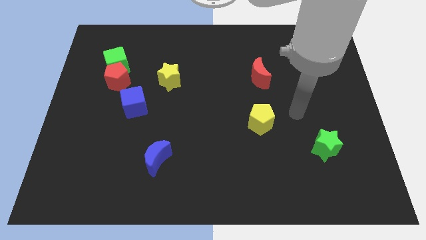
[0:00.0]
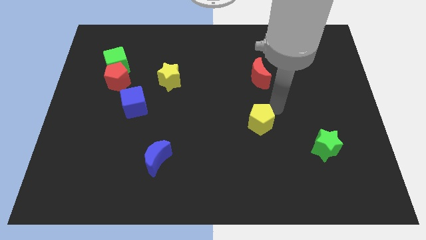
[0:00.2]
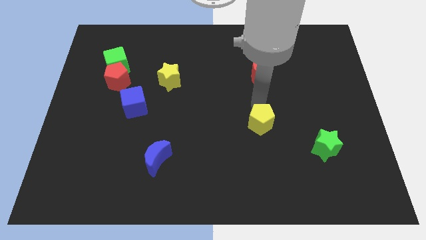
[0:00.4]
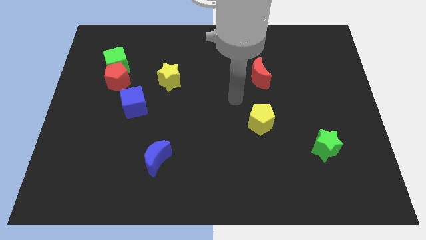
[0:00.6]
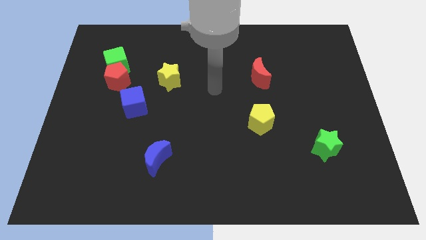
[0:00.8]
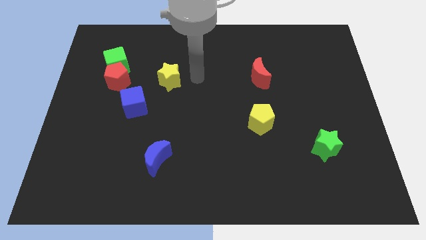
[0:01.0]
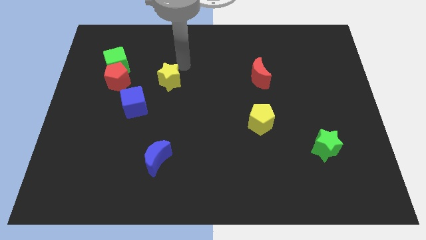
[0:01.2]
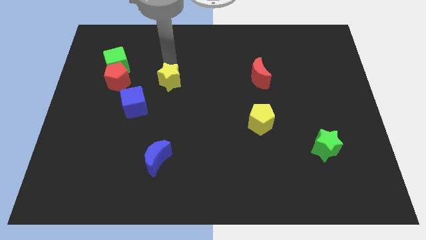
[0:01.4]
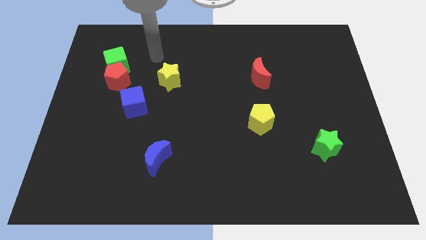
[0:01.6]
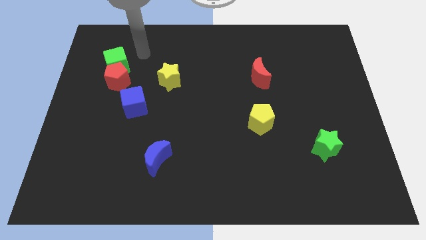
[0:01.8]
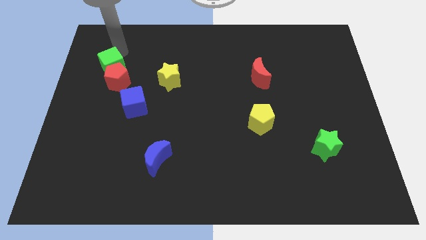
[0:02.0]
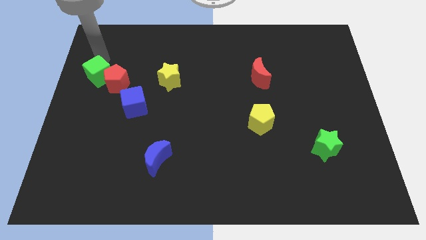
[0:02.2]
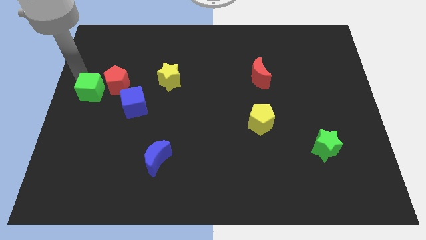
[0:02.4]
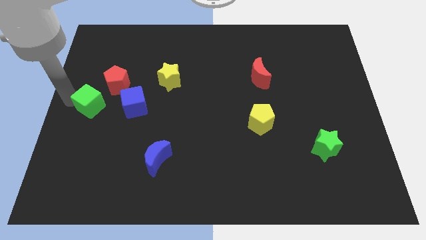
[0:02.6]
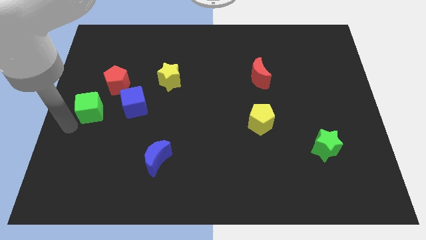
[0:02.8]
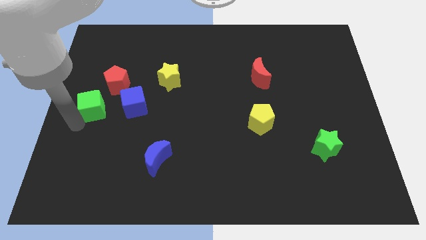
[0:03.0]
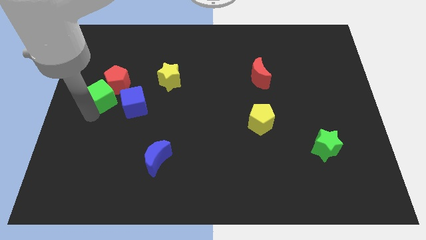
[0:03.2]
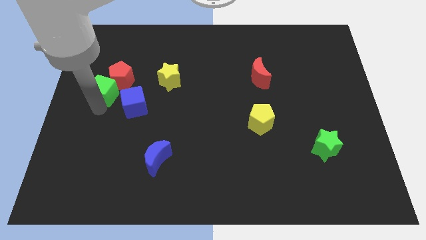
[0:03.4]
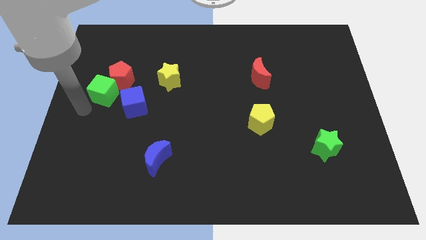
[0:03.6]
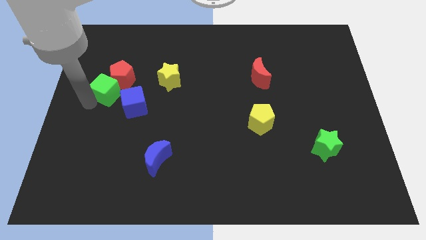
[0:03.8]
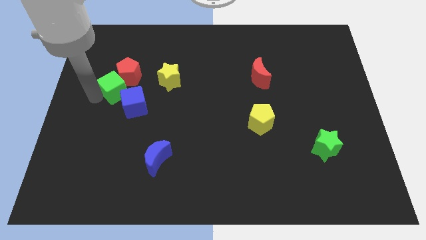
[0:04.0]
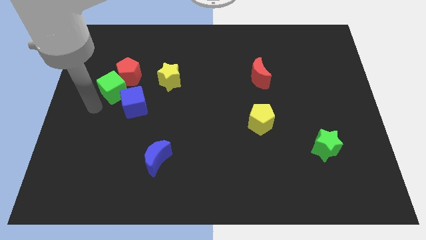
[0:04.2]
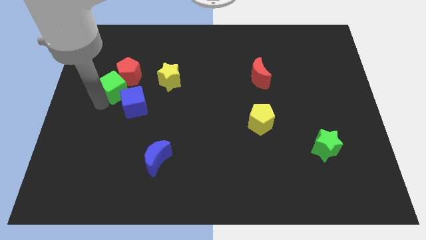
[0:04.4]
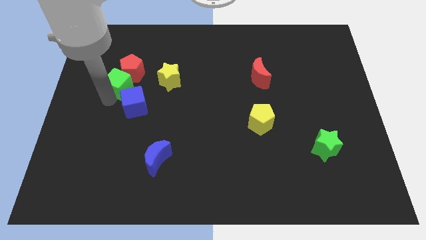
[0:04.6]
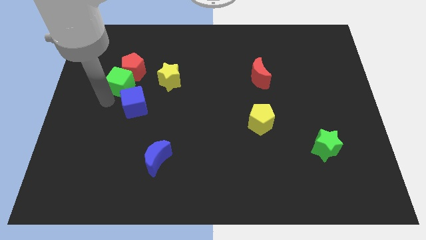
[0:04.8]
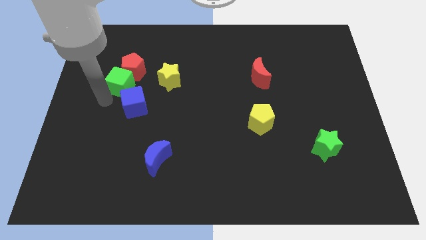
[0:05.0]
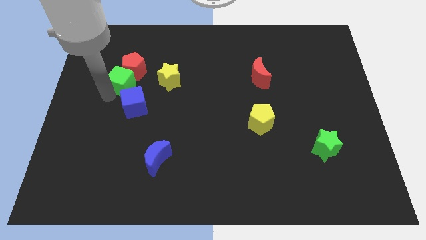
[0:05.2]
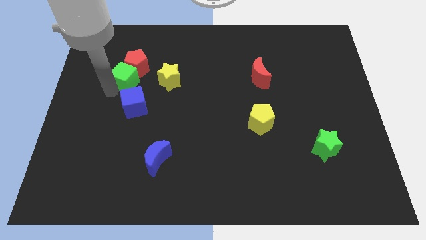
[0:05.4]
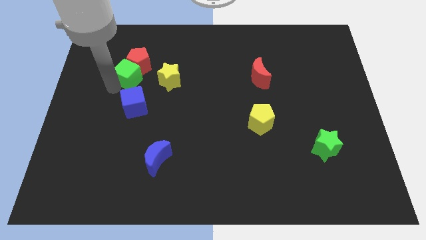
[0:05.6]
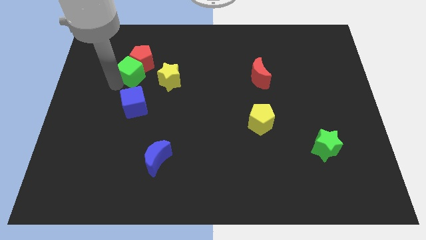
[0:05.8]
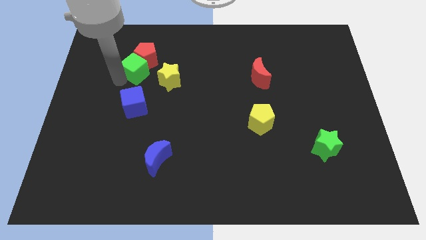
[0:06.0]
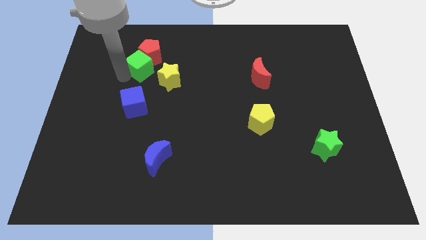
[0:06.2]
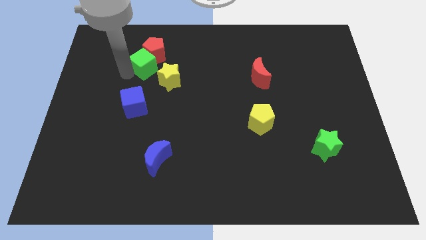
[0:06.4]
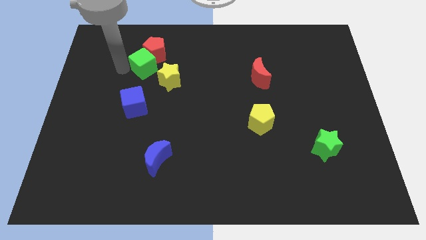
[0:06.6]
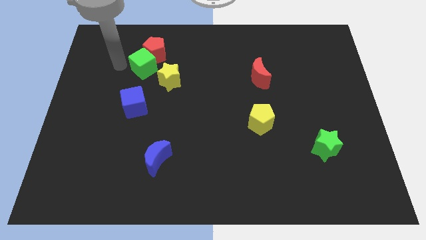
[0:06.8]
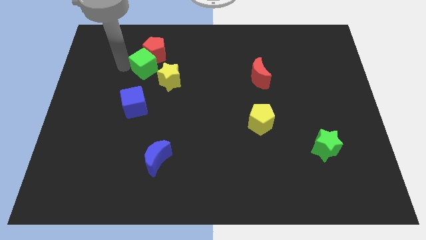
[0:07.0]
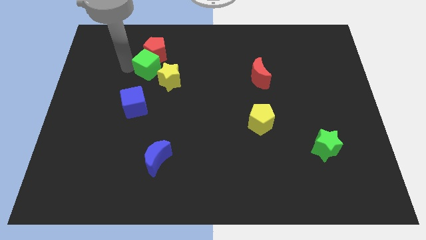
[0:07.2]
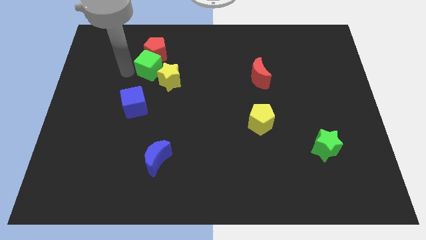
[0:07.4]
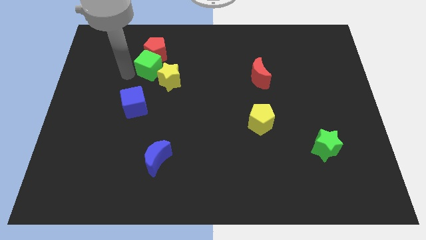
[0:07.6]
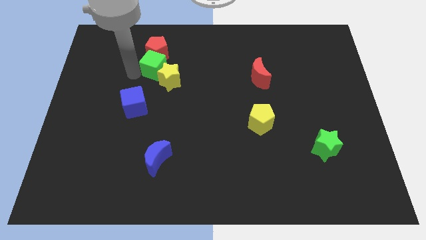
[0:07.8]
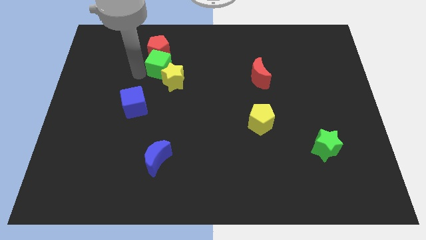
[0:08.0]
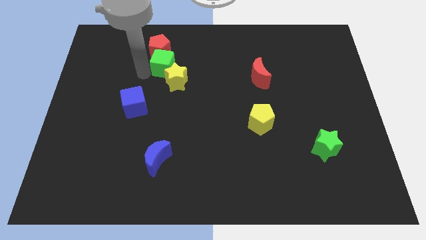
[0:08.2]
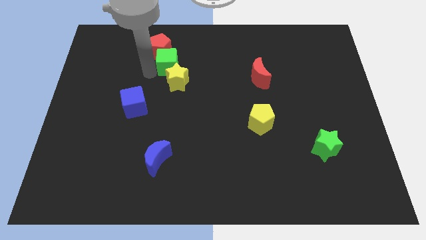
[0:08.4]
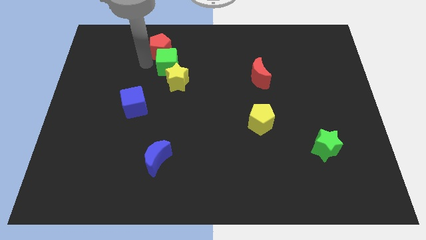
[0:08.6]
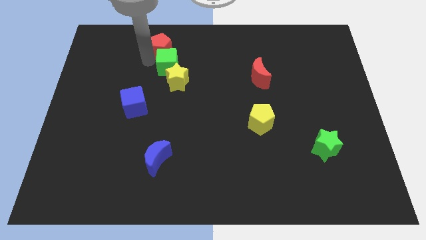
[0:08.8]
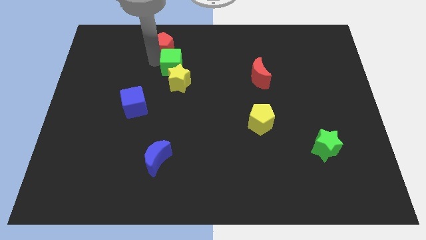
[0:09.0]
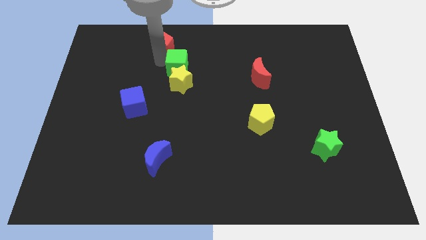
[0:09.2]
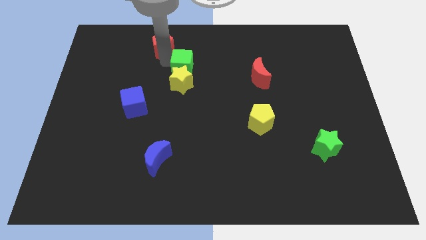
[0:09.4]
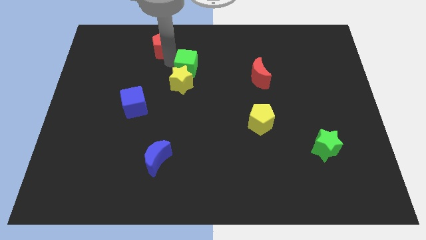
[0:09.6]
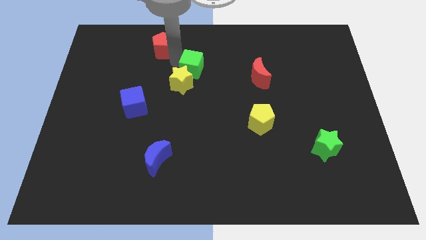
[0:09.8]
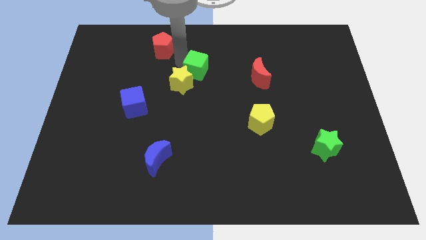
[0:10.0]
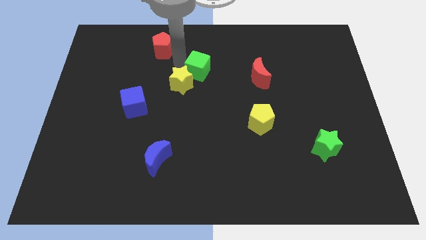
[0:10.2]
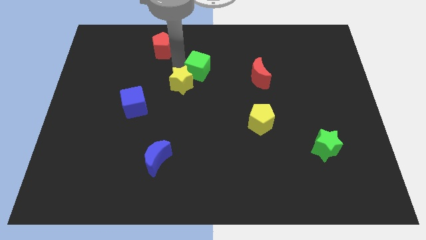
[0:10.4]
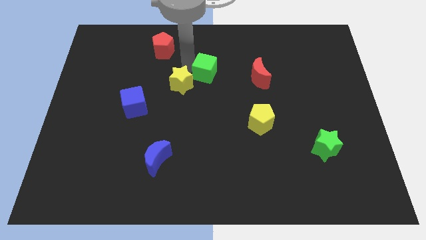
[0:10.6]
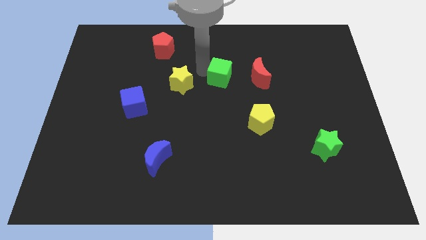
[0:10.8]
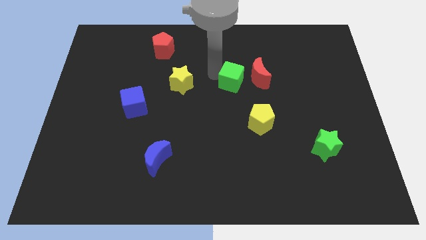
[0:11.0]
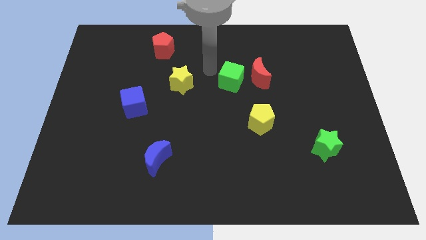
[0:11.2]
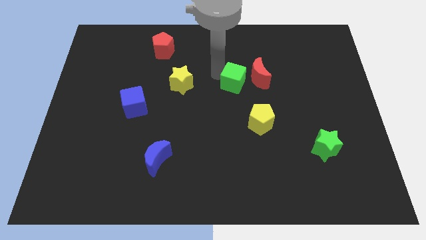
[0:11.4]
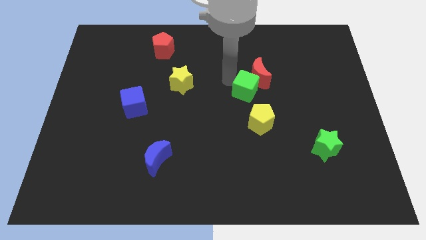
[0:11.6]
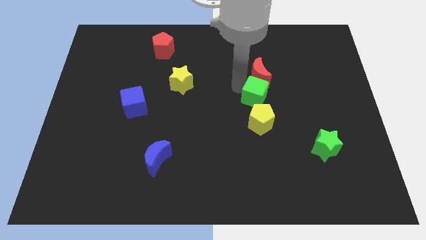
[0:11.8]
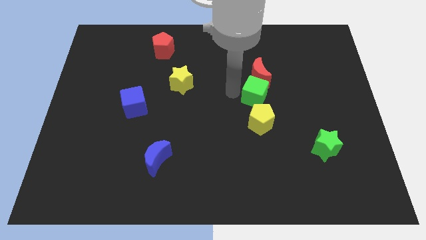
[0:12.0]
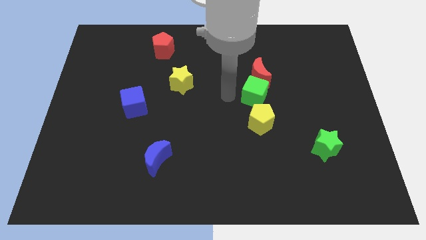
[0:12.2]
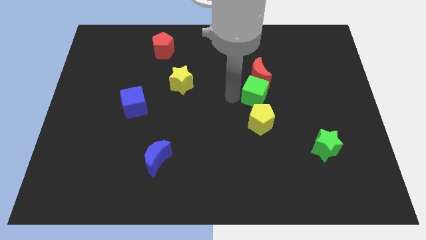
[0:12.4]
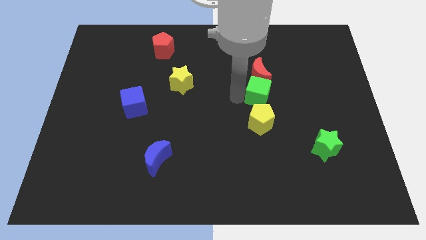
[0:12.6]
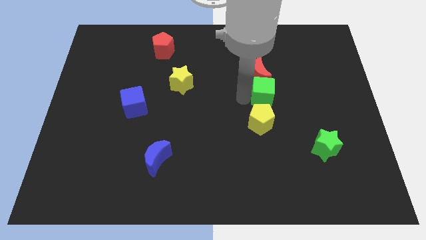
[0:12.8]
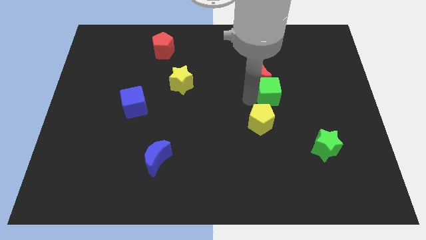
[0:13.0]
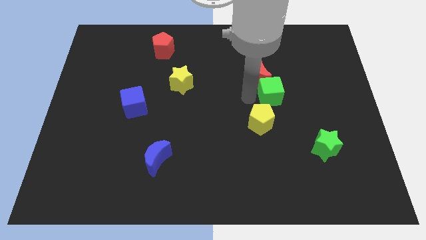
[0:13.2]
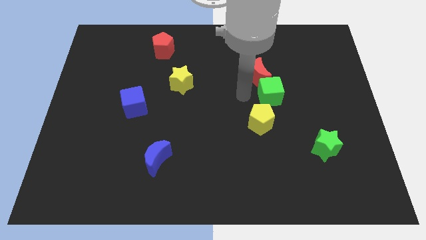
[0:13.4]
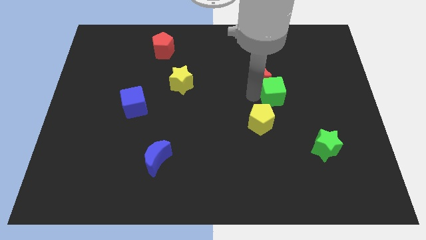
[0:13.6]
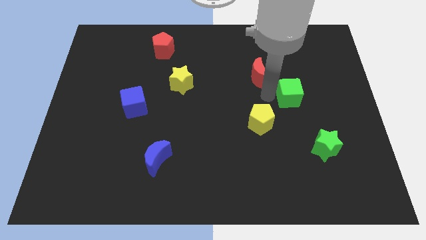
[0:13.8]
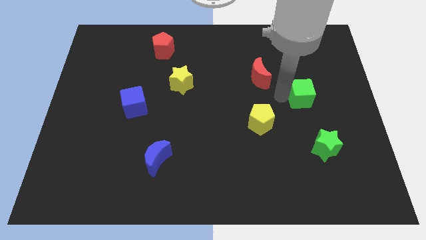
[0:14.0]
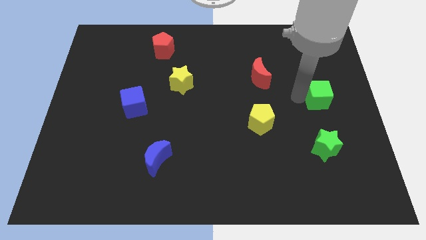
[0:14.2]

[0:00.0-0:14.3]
push the green cube to the center right

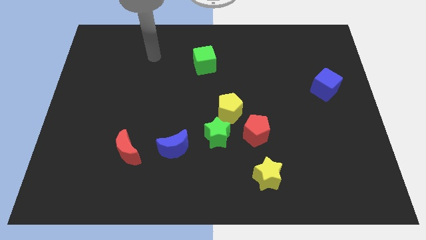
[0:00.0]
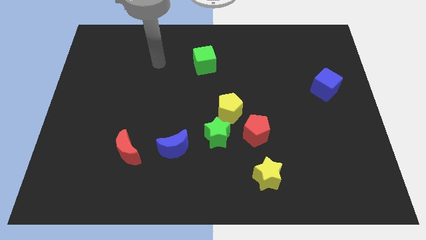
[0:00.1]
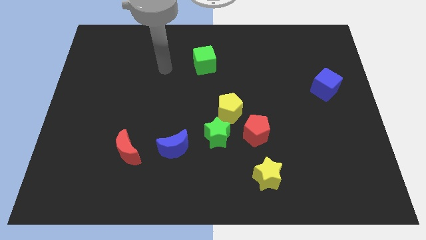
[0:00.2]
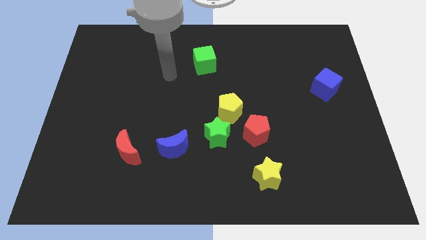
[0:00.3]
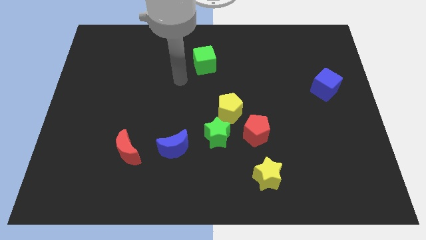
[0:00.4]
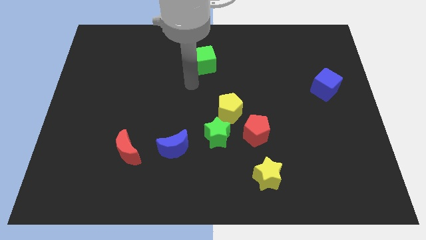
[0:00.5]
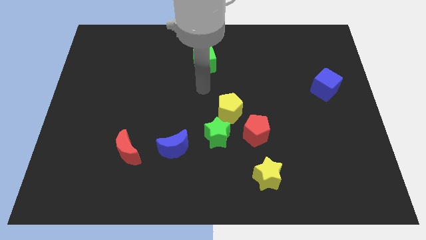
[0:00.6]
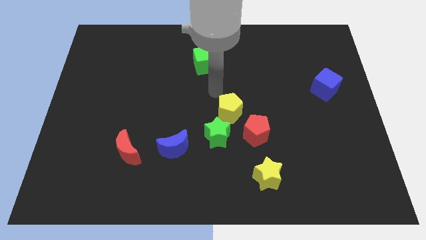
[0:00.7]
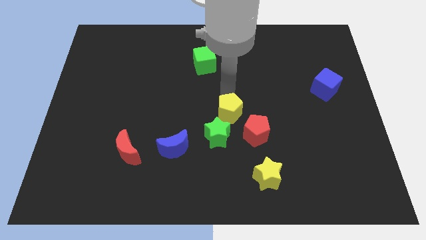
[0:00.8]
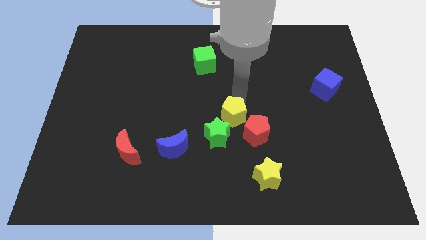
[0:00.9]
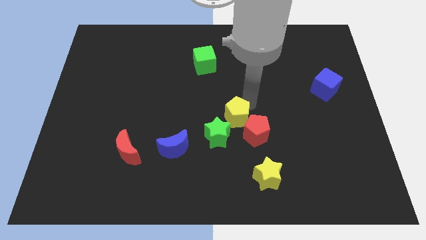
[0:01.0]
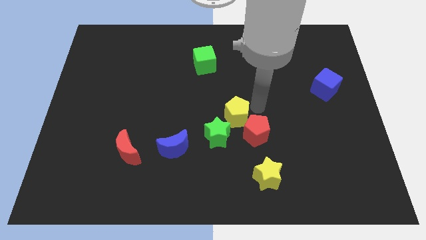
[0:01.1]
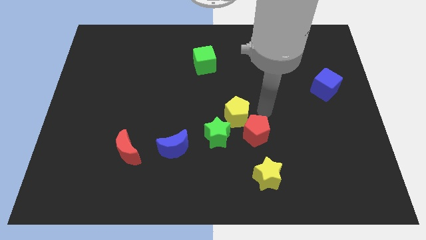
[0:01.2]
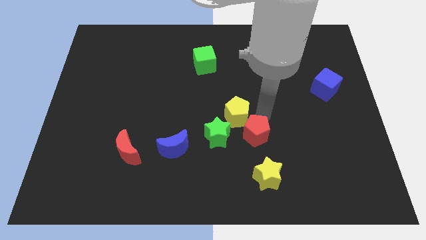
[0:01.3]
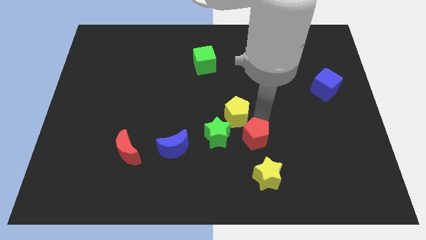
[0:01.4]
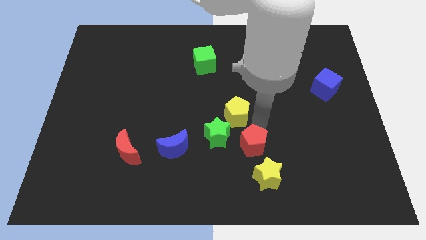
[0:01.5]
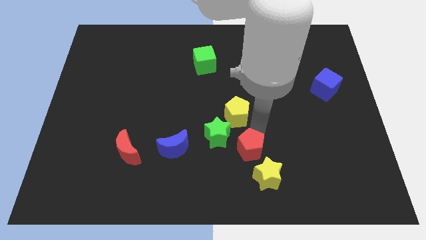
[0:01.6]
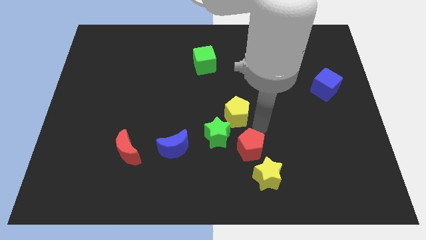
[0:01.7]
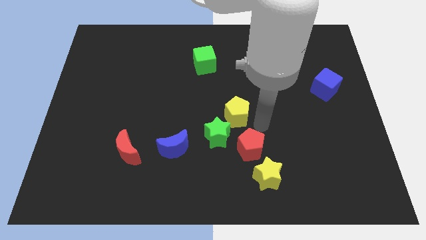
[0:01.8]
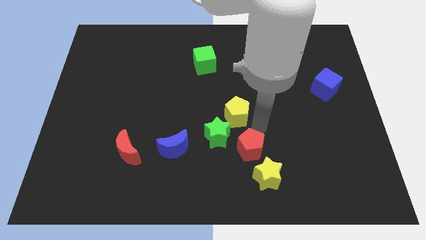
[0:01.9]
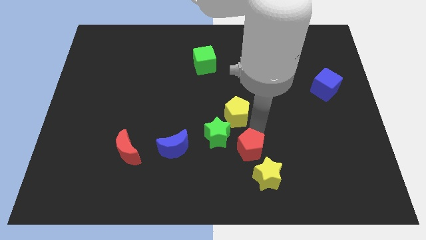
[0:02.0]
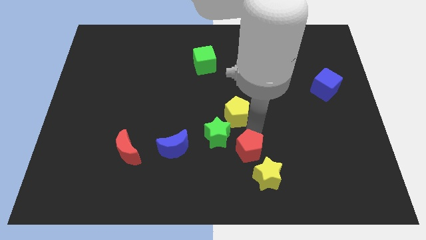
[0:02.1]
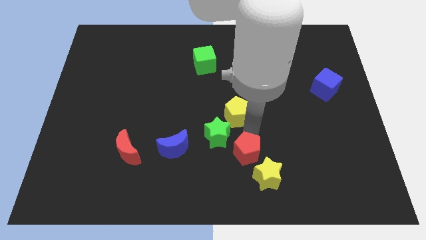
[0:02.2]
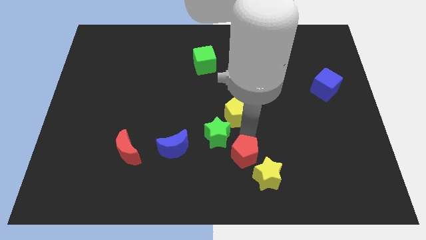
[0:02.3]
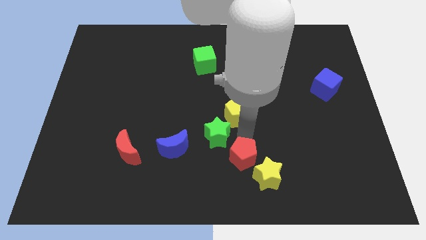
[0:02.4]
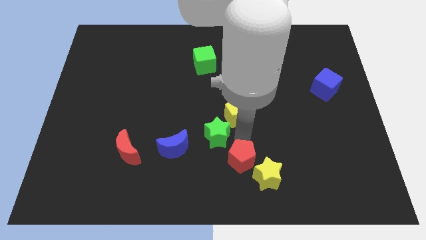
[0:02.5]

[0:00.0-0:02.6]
push the red pentagon to the bottom
